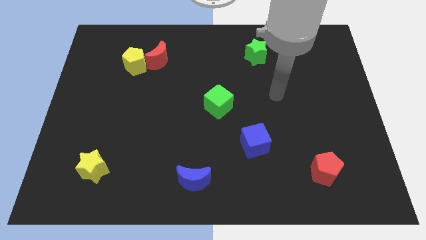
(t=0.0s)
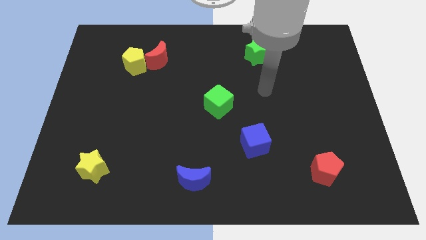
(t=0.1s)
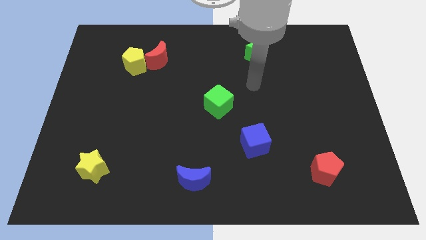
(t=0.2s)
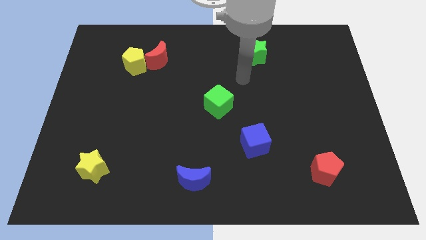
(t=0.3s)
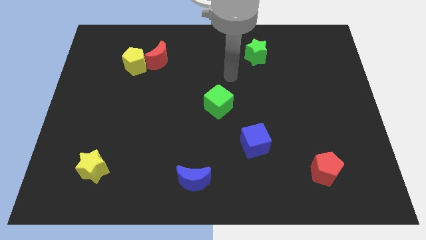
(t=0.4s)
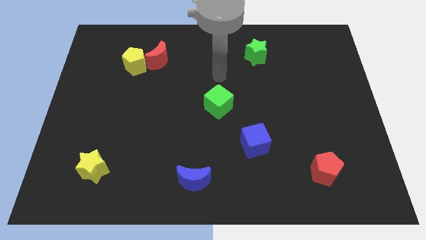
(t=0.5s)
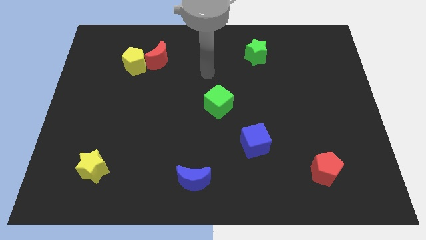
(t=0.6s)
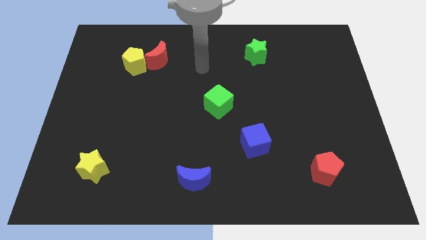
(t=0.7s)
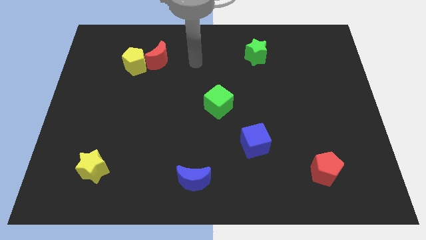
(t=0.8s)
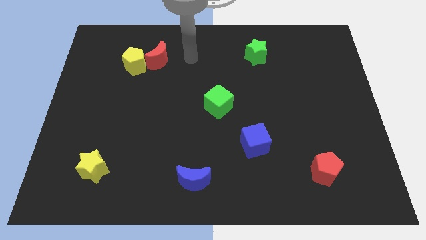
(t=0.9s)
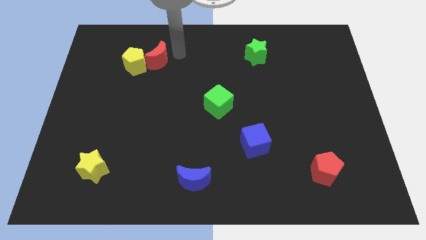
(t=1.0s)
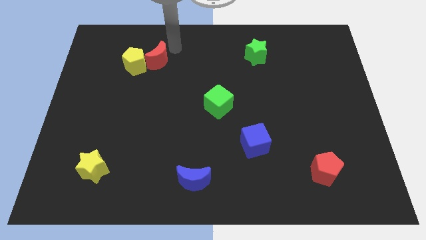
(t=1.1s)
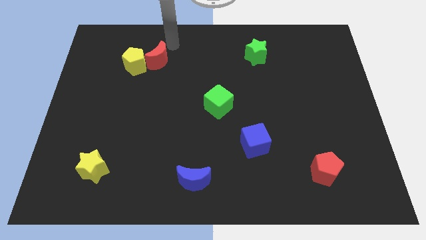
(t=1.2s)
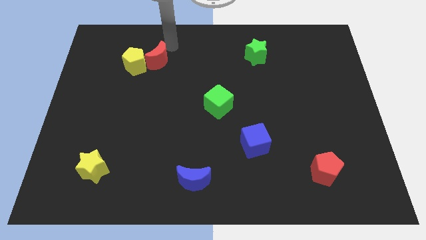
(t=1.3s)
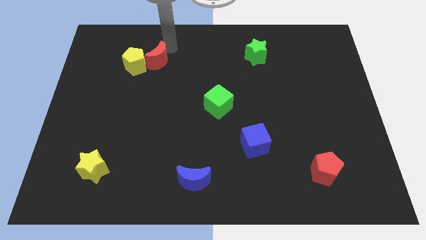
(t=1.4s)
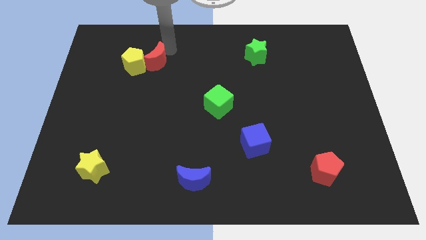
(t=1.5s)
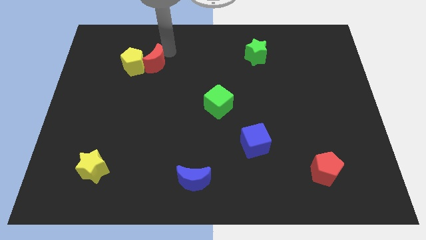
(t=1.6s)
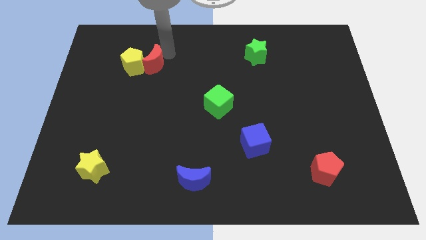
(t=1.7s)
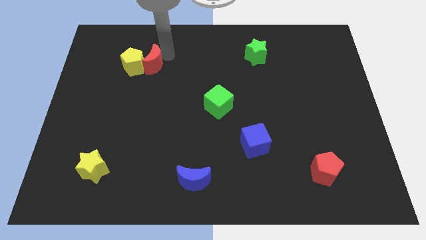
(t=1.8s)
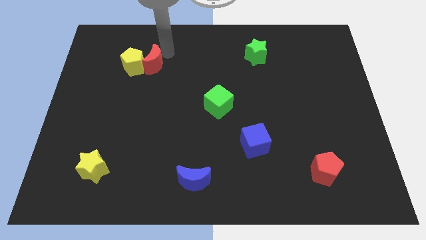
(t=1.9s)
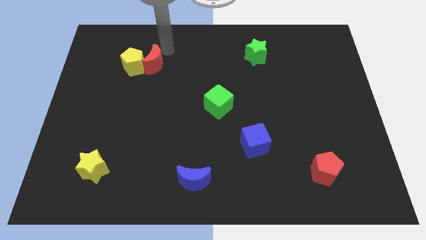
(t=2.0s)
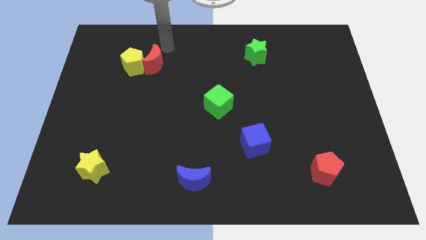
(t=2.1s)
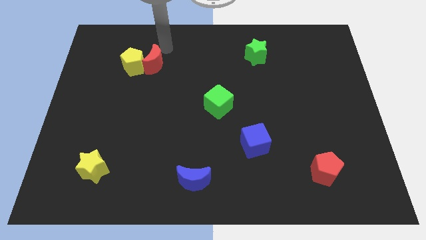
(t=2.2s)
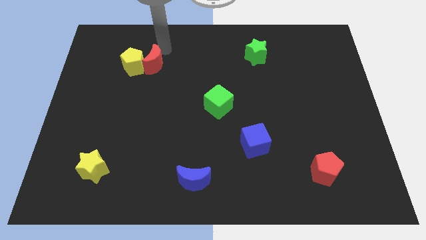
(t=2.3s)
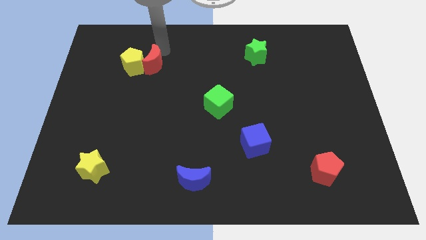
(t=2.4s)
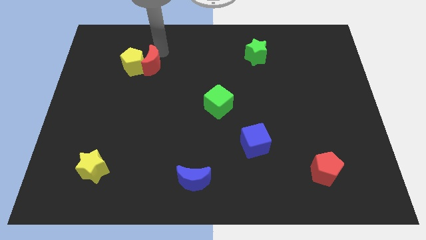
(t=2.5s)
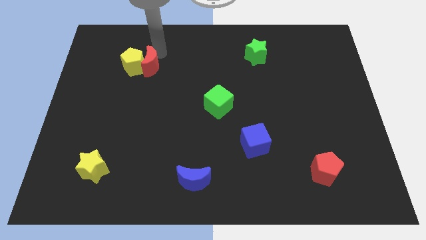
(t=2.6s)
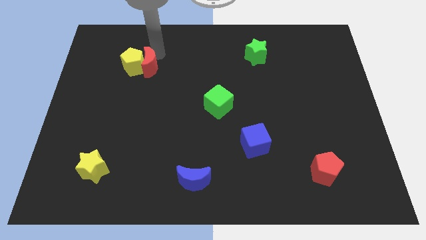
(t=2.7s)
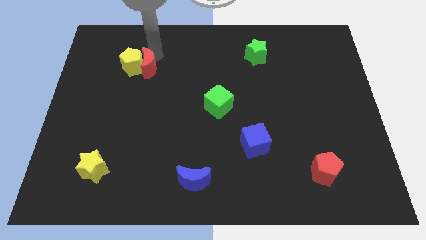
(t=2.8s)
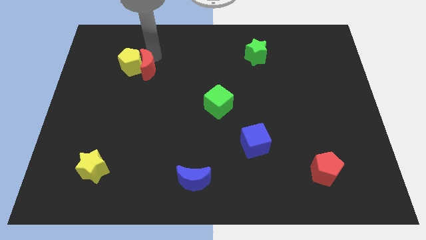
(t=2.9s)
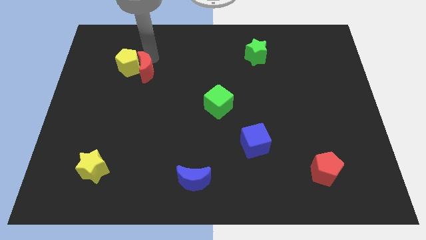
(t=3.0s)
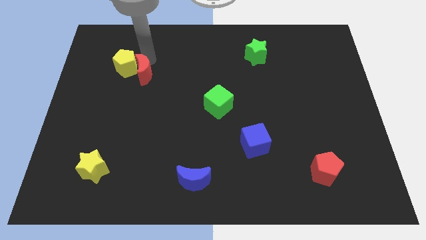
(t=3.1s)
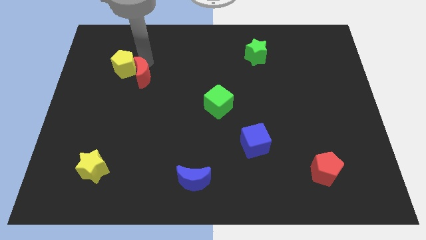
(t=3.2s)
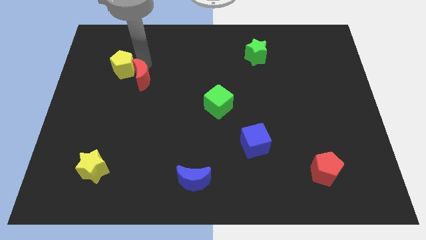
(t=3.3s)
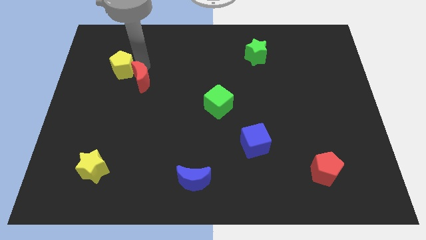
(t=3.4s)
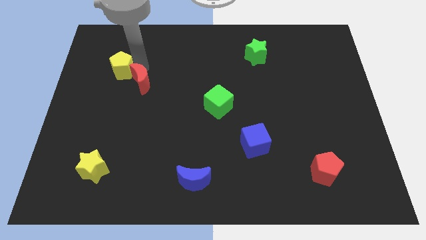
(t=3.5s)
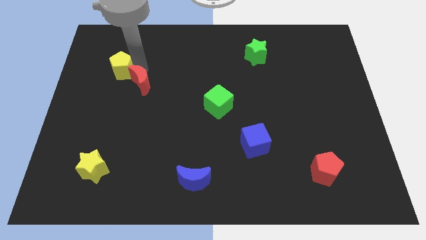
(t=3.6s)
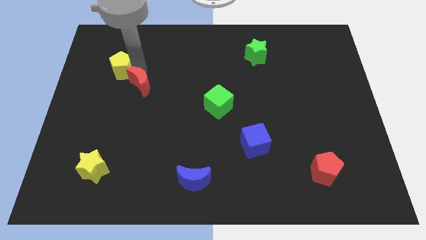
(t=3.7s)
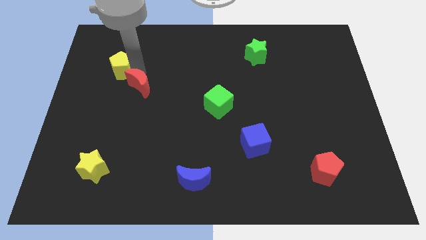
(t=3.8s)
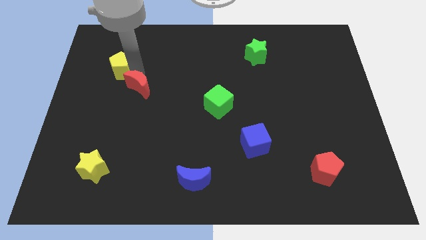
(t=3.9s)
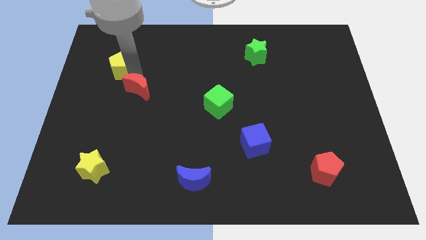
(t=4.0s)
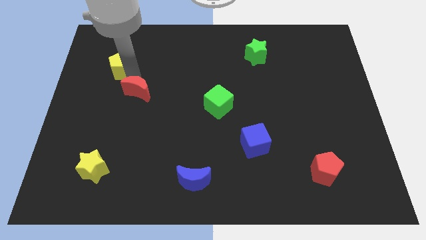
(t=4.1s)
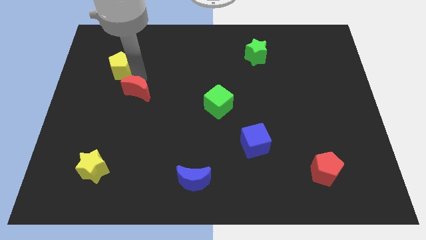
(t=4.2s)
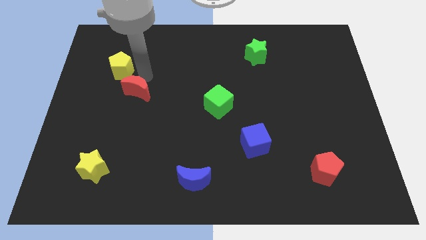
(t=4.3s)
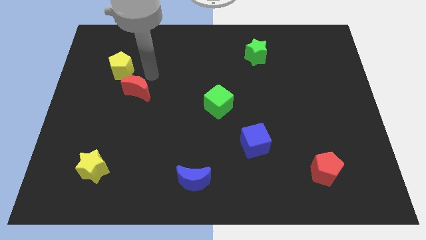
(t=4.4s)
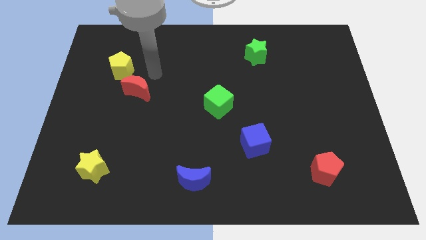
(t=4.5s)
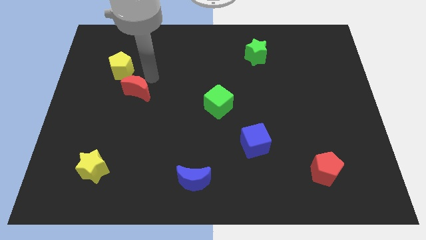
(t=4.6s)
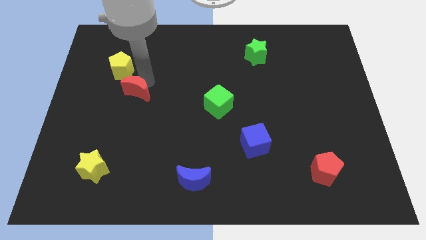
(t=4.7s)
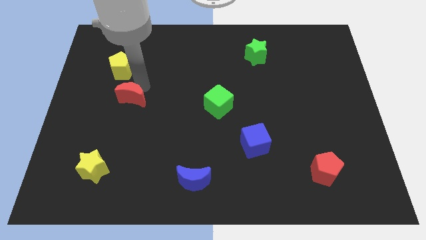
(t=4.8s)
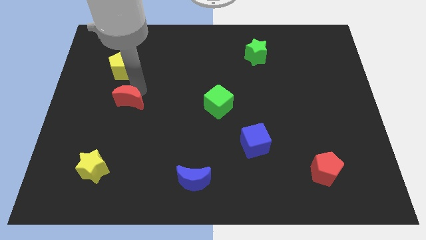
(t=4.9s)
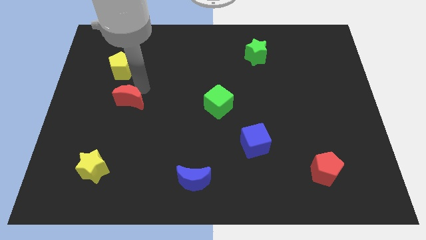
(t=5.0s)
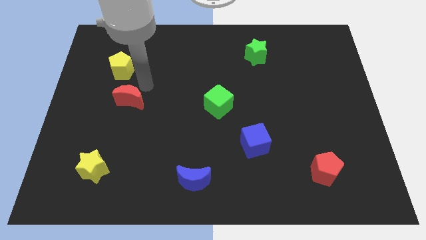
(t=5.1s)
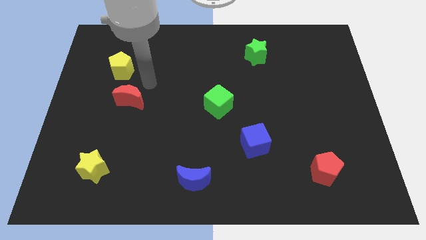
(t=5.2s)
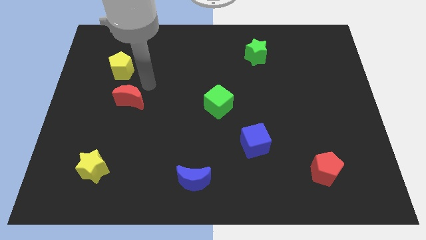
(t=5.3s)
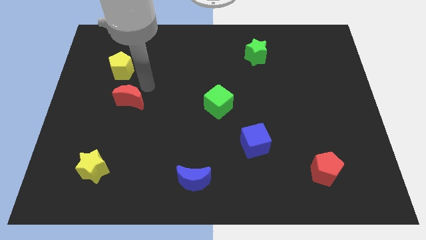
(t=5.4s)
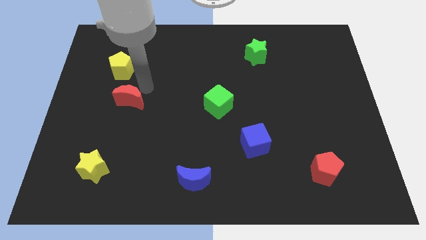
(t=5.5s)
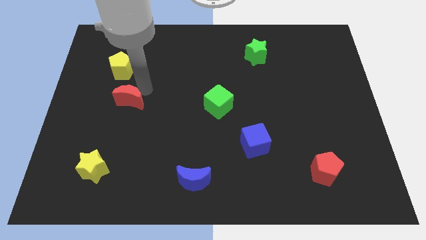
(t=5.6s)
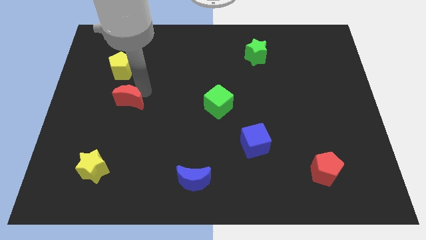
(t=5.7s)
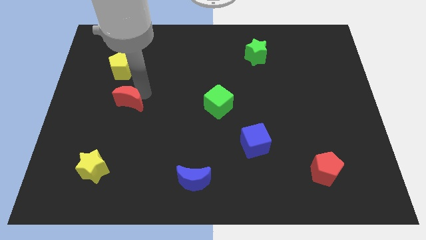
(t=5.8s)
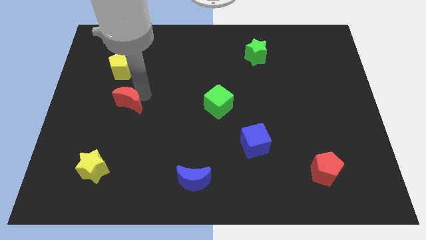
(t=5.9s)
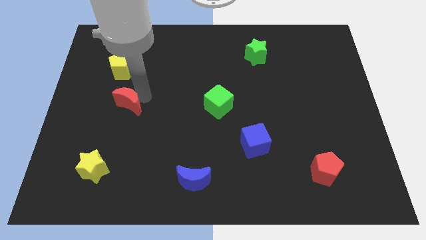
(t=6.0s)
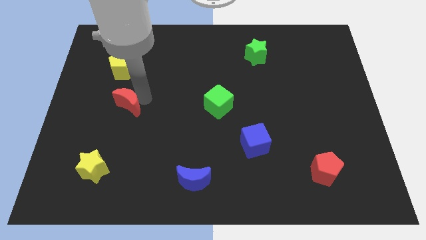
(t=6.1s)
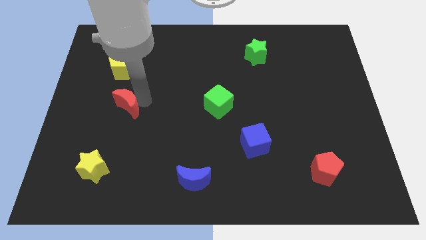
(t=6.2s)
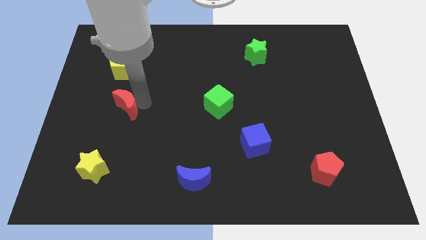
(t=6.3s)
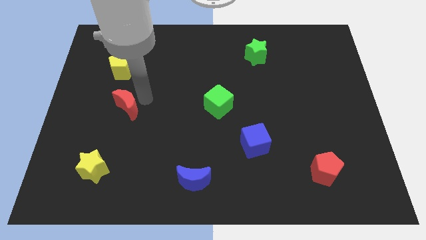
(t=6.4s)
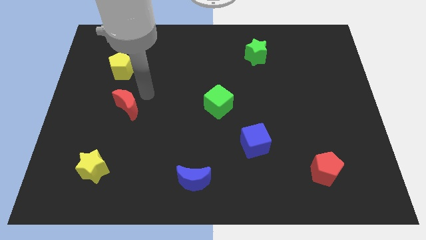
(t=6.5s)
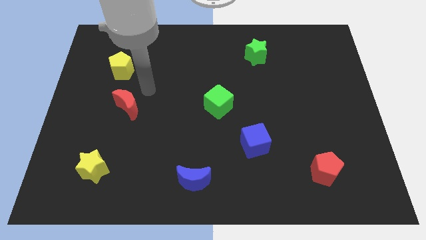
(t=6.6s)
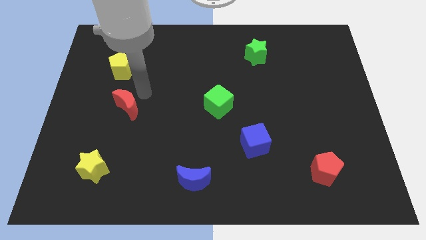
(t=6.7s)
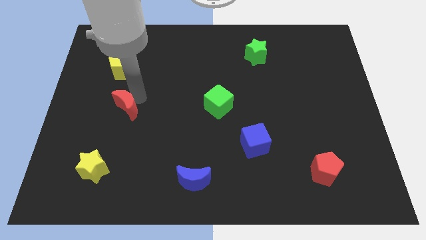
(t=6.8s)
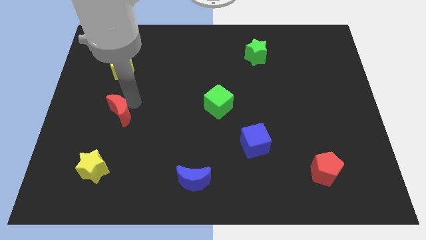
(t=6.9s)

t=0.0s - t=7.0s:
slide the red moon to the top of the yellow star
